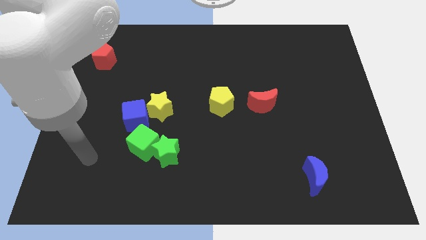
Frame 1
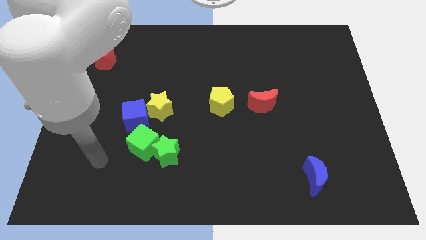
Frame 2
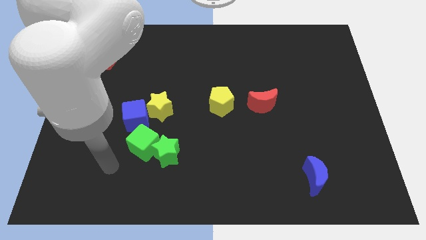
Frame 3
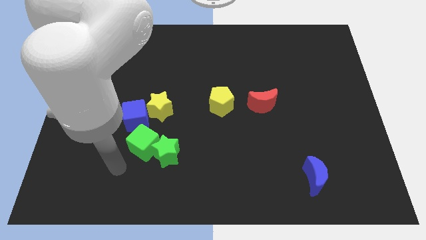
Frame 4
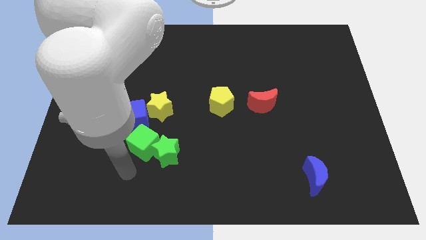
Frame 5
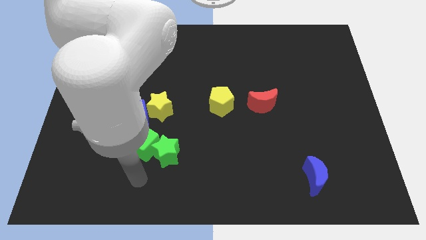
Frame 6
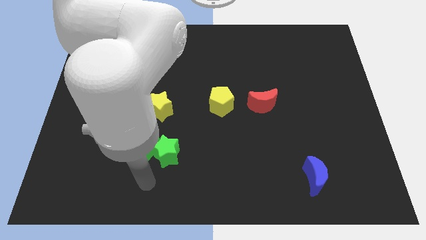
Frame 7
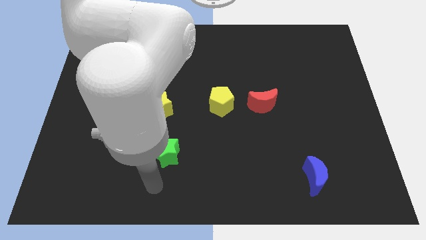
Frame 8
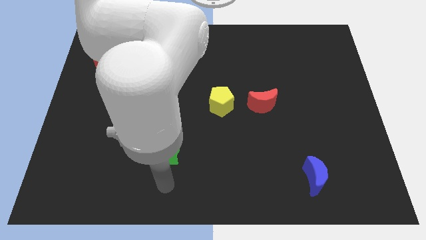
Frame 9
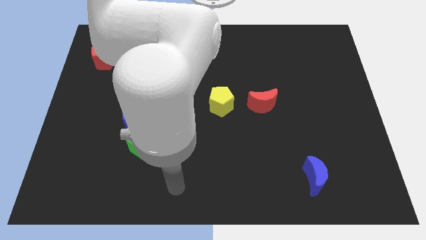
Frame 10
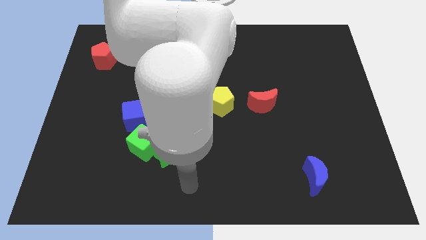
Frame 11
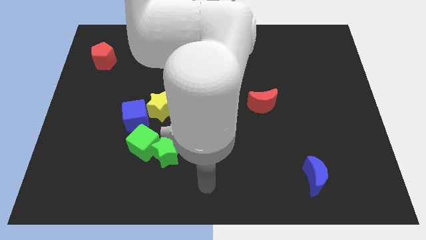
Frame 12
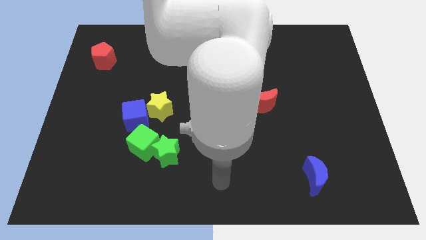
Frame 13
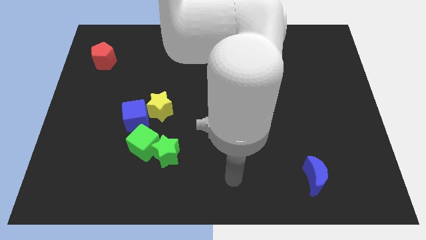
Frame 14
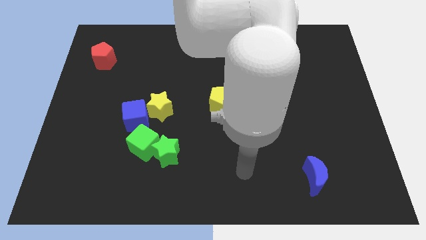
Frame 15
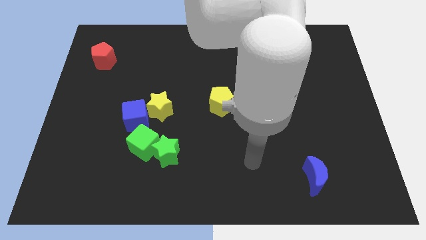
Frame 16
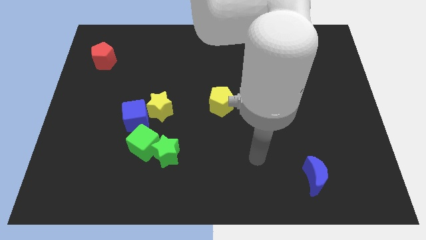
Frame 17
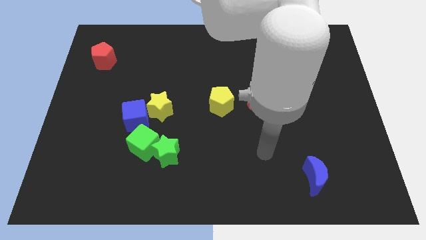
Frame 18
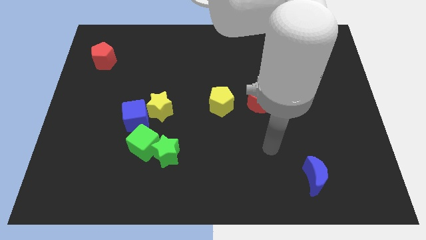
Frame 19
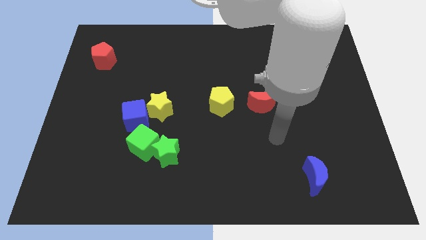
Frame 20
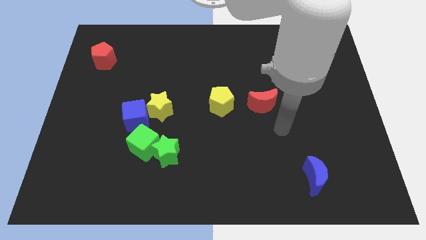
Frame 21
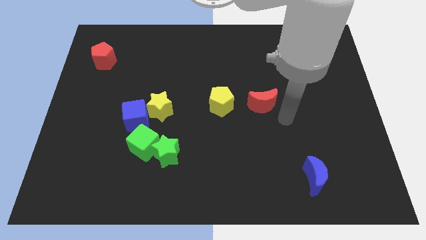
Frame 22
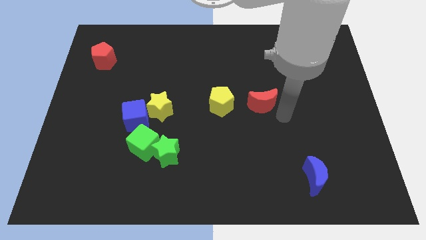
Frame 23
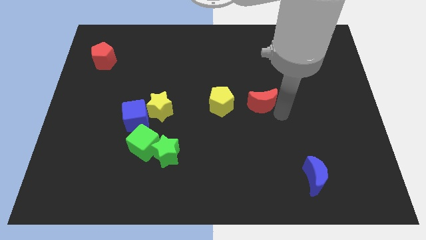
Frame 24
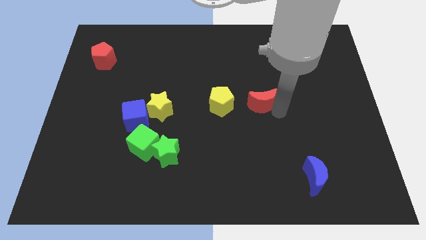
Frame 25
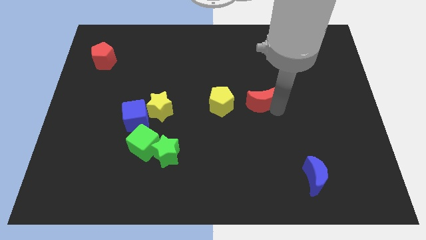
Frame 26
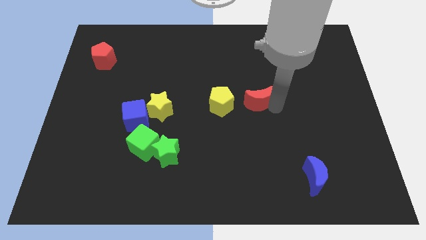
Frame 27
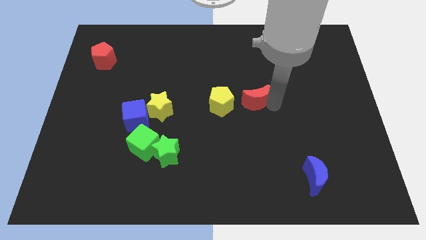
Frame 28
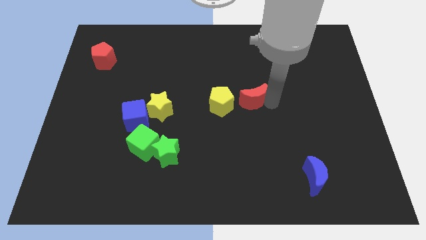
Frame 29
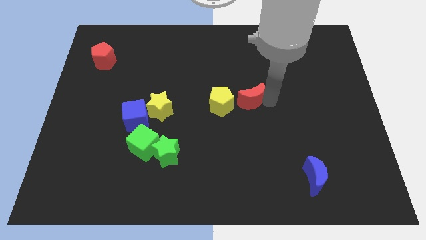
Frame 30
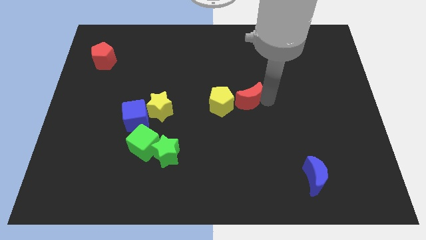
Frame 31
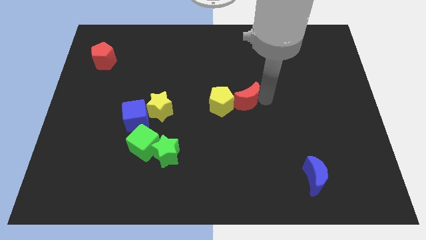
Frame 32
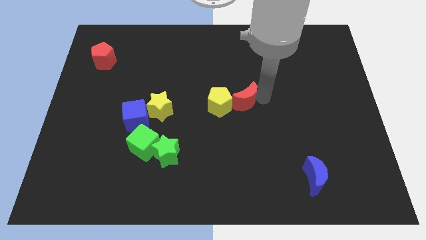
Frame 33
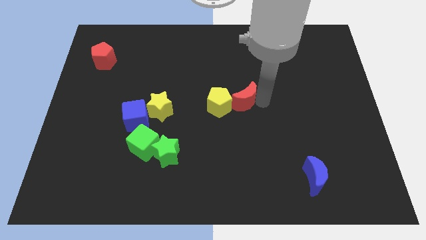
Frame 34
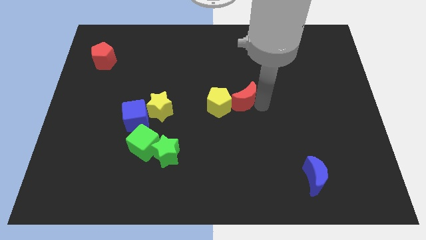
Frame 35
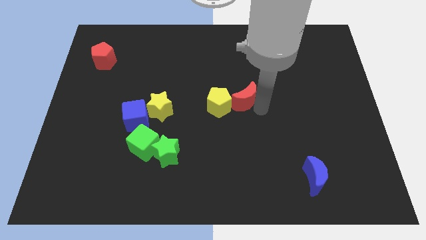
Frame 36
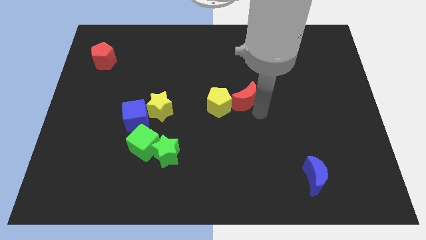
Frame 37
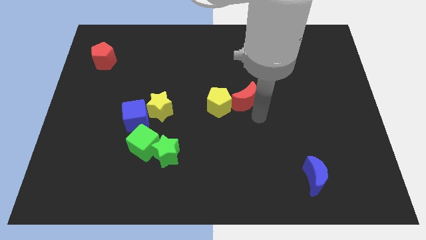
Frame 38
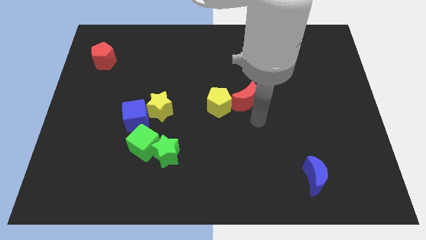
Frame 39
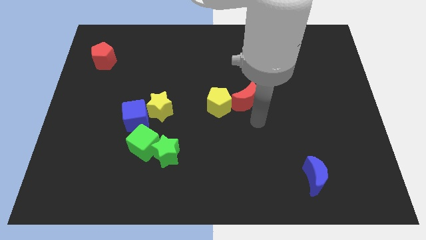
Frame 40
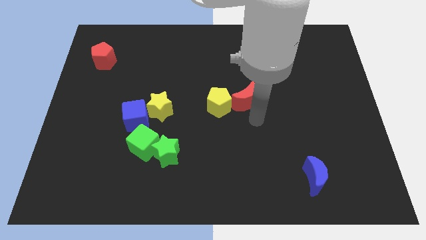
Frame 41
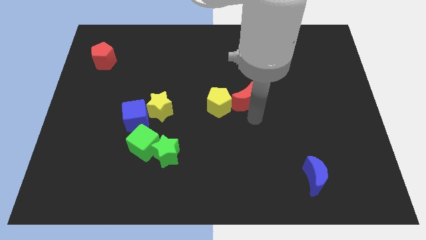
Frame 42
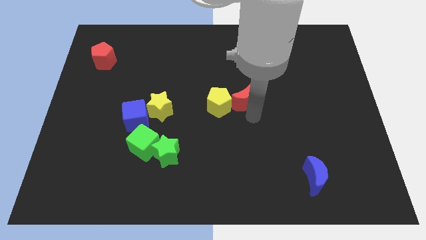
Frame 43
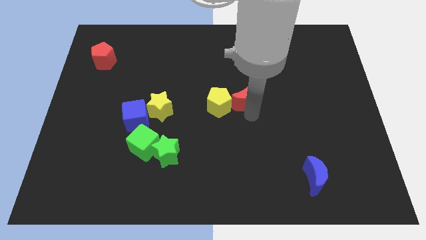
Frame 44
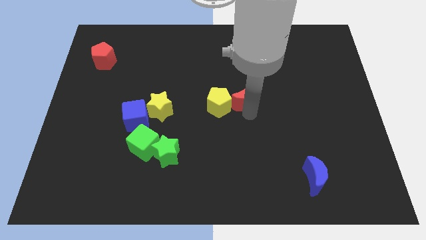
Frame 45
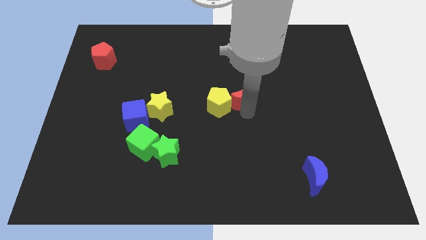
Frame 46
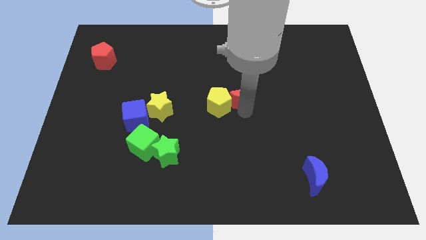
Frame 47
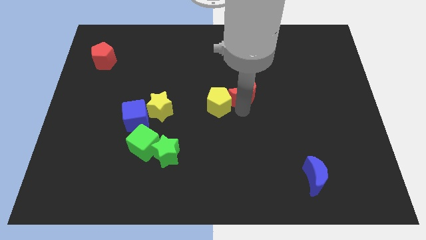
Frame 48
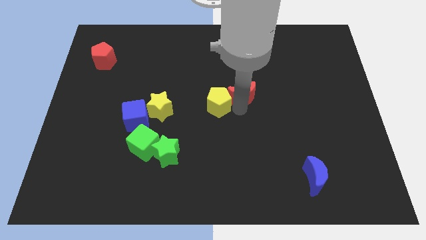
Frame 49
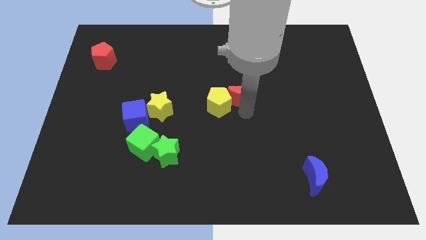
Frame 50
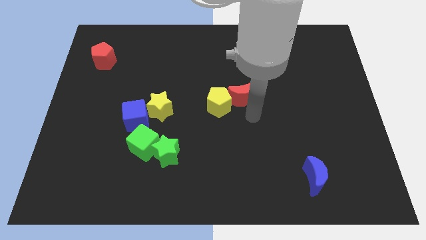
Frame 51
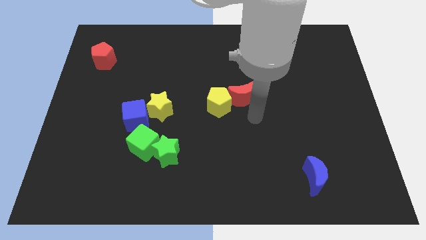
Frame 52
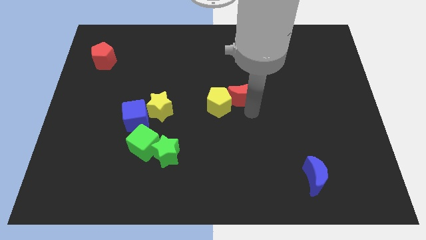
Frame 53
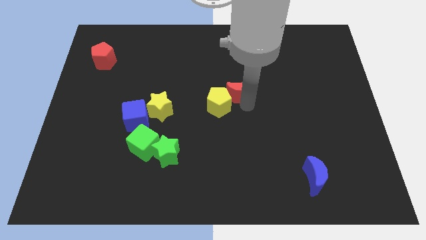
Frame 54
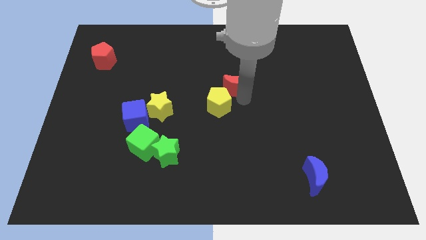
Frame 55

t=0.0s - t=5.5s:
slightly push the red moon diagonally upwards and to the left

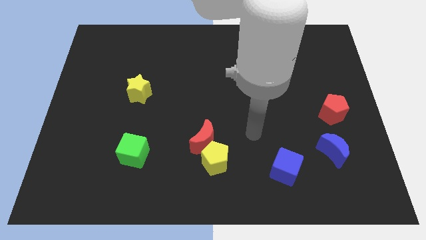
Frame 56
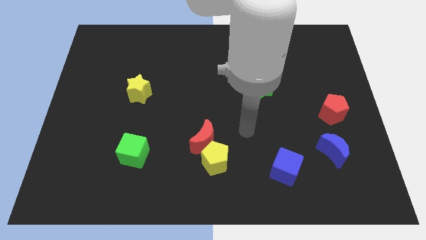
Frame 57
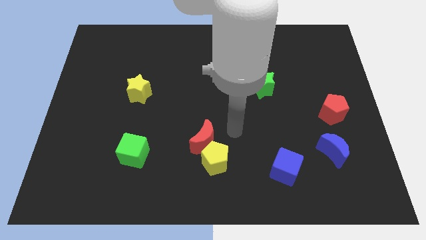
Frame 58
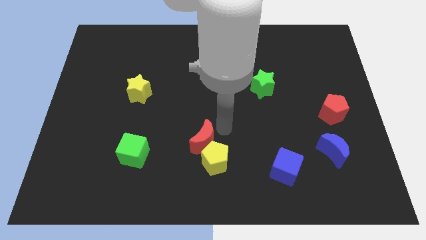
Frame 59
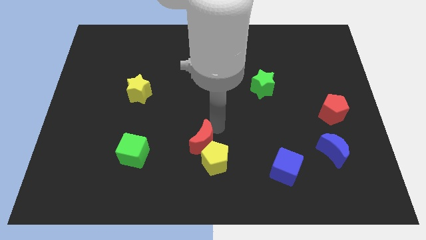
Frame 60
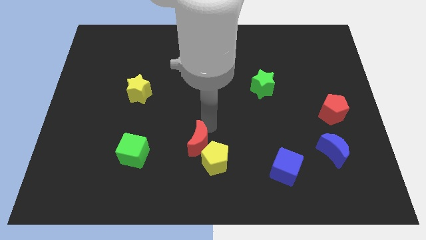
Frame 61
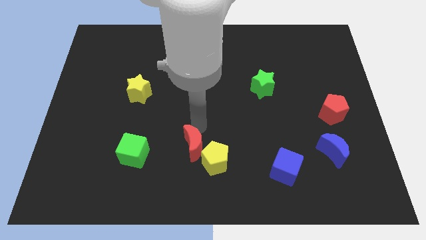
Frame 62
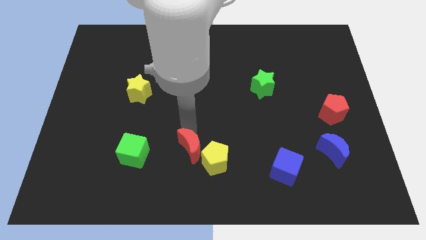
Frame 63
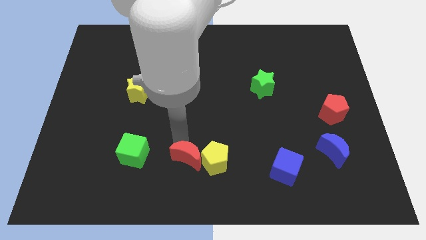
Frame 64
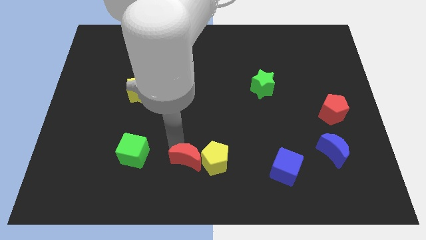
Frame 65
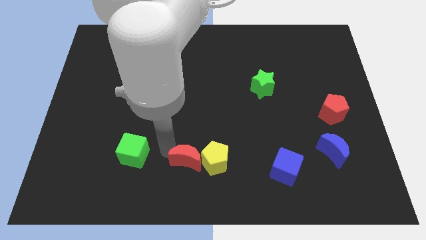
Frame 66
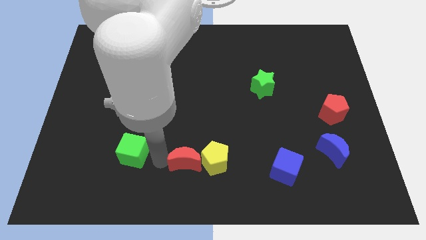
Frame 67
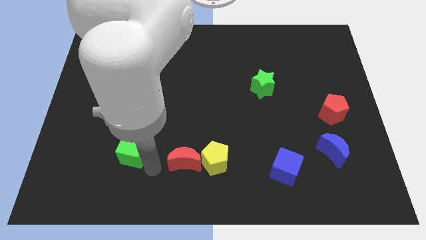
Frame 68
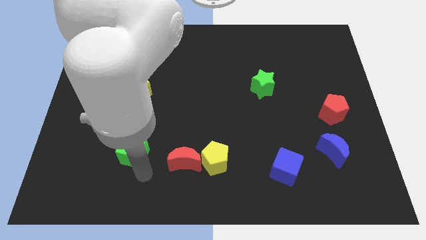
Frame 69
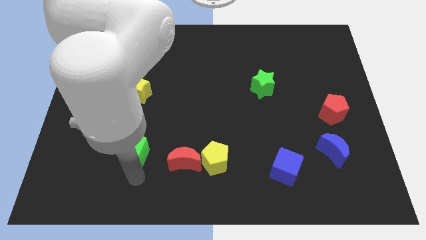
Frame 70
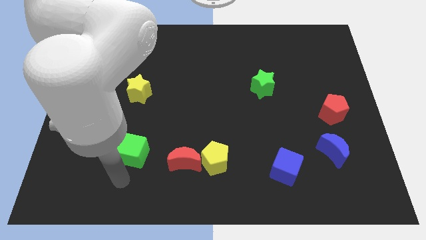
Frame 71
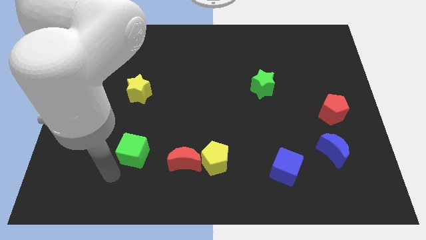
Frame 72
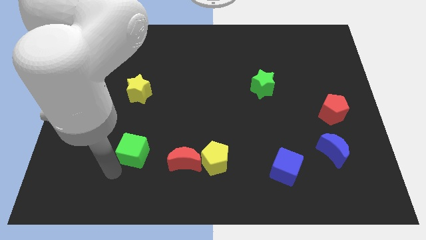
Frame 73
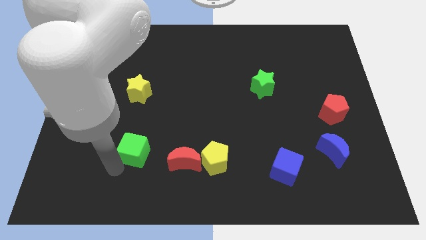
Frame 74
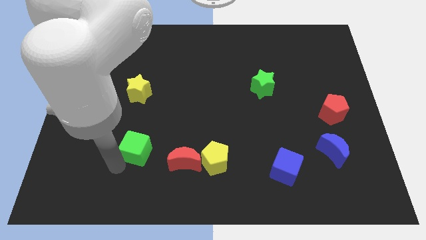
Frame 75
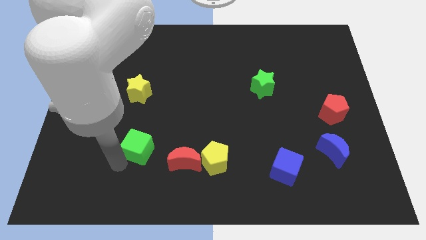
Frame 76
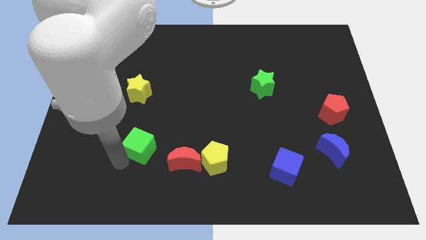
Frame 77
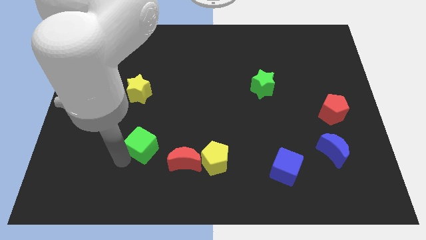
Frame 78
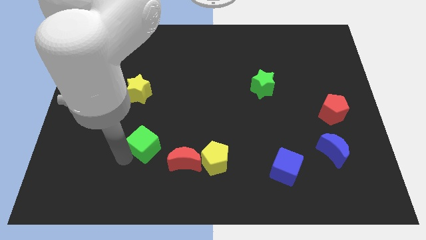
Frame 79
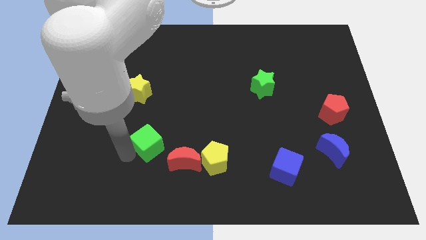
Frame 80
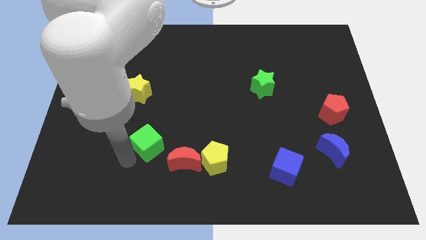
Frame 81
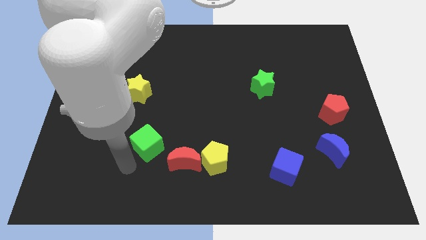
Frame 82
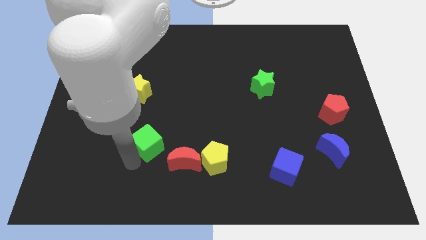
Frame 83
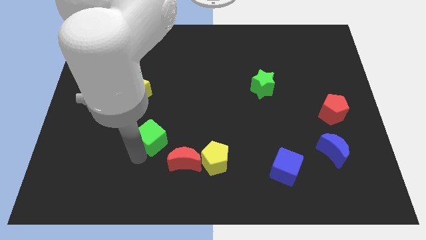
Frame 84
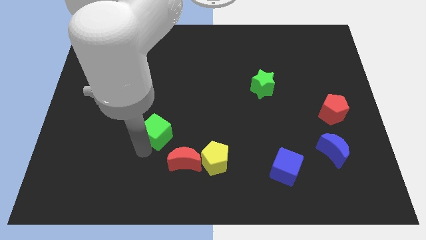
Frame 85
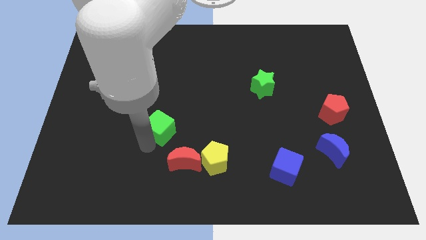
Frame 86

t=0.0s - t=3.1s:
move the green cube somewhat upwards and then to the right
